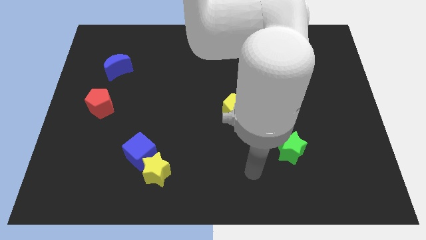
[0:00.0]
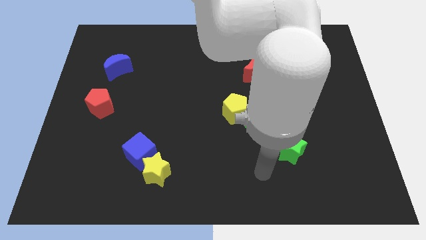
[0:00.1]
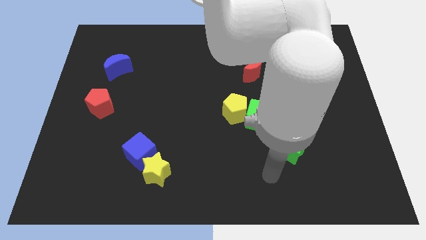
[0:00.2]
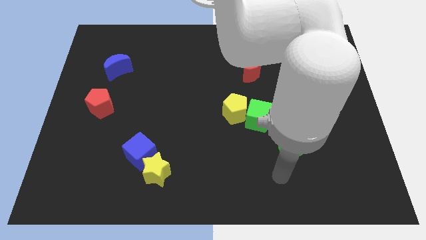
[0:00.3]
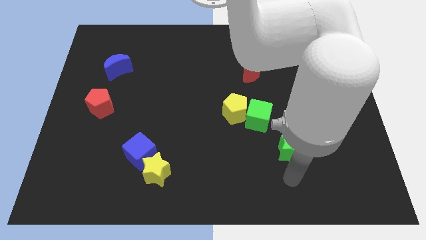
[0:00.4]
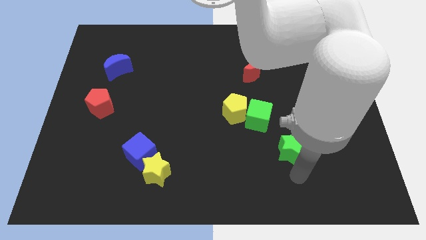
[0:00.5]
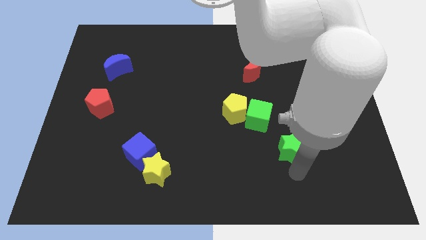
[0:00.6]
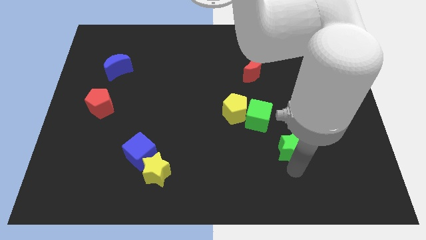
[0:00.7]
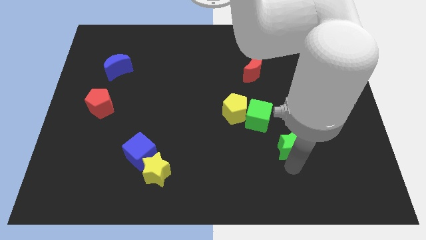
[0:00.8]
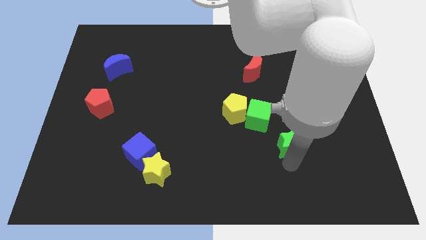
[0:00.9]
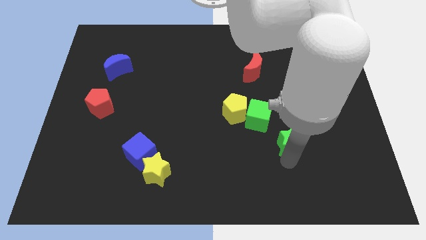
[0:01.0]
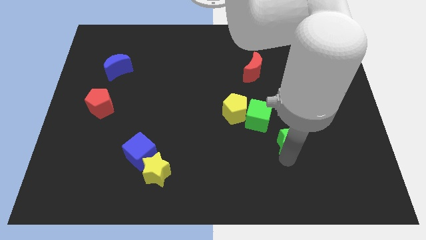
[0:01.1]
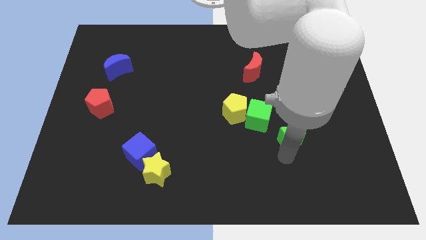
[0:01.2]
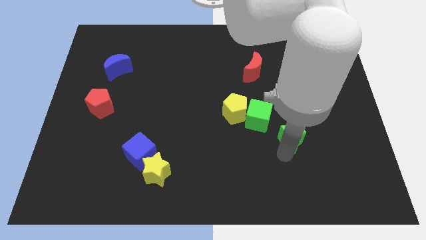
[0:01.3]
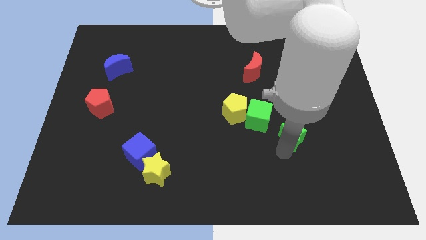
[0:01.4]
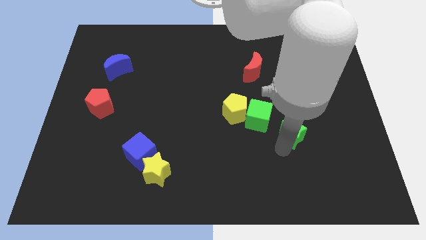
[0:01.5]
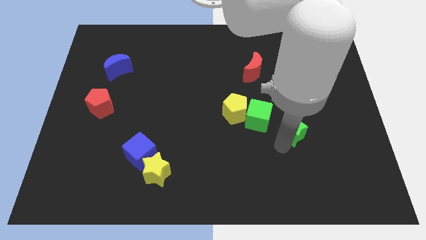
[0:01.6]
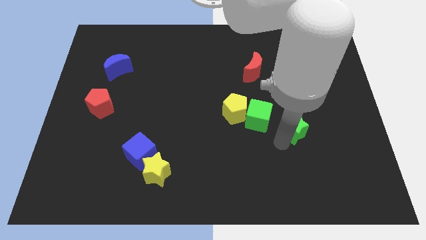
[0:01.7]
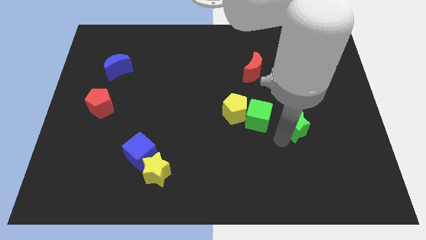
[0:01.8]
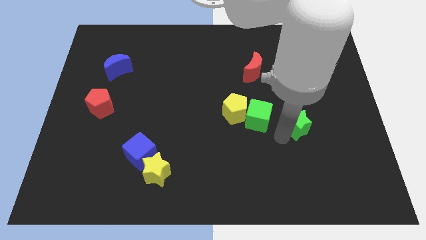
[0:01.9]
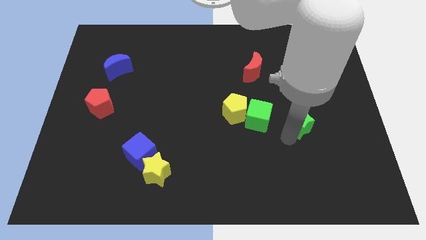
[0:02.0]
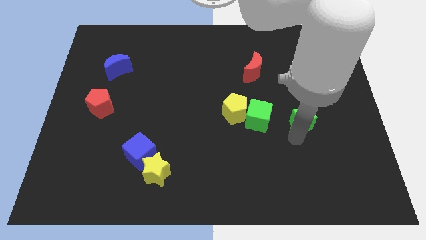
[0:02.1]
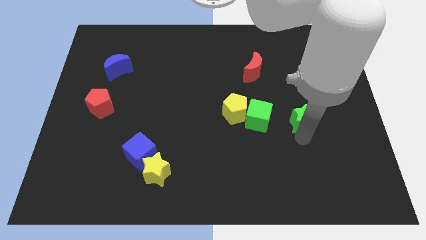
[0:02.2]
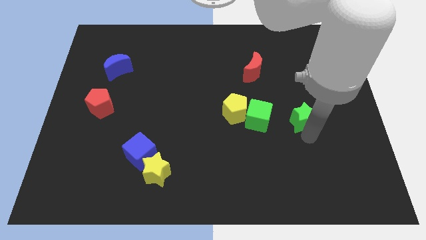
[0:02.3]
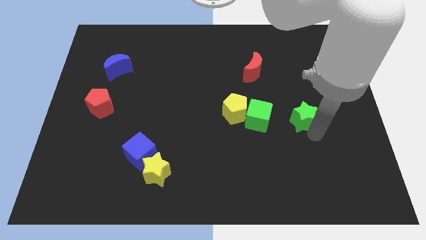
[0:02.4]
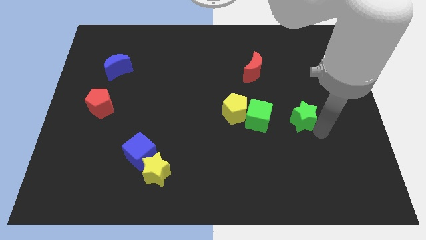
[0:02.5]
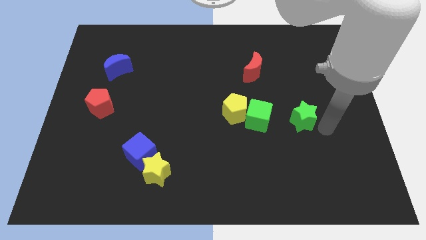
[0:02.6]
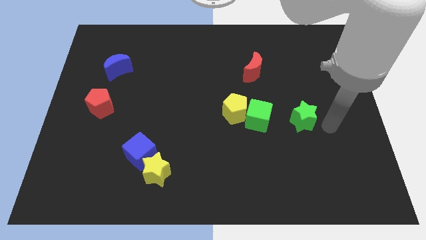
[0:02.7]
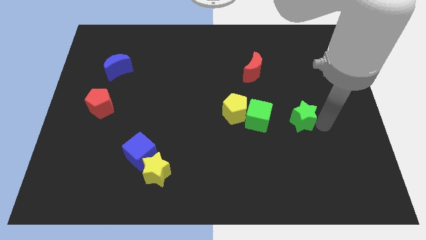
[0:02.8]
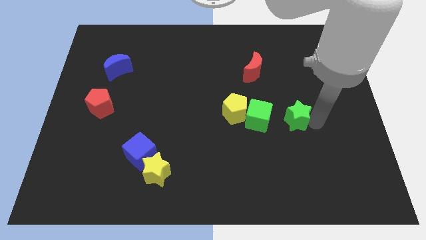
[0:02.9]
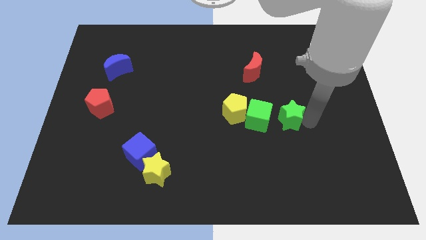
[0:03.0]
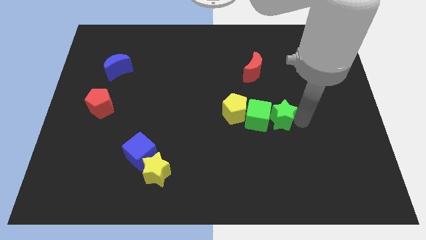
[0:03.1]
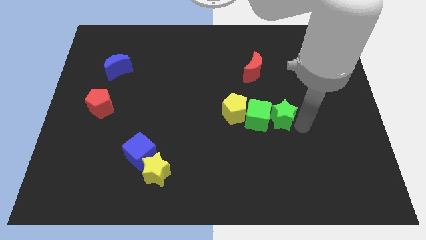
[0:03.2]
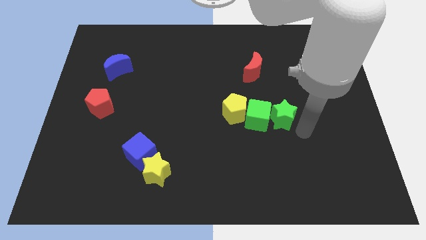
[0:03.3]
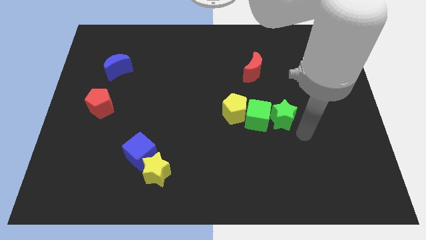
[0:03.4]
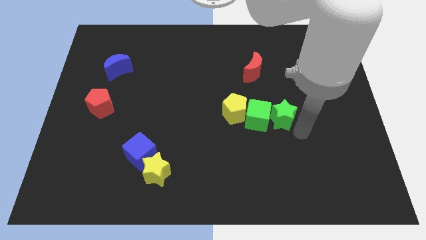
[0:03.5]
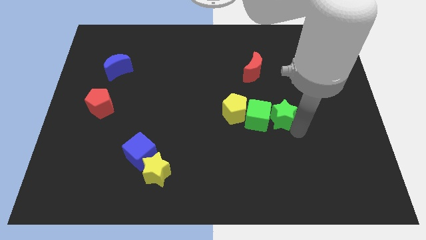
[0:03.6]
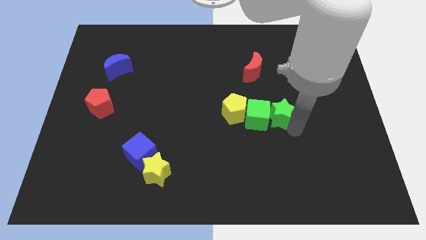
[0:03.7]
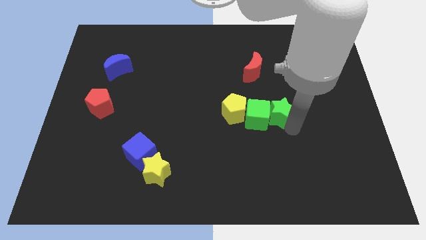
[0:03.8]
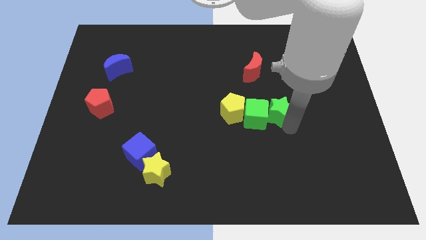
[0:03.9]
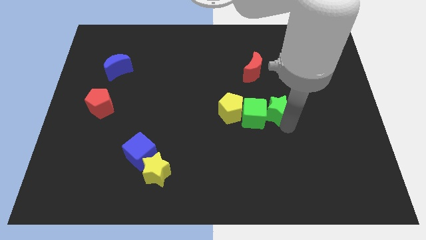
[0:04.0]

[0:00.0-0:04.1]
move the green star slightly up and then left

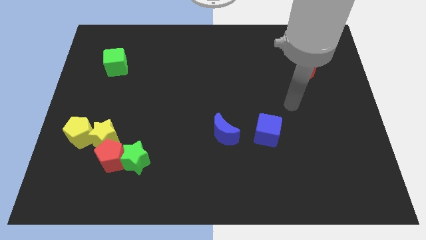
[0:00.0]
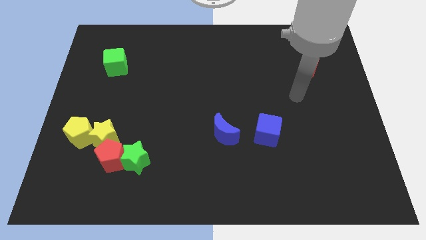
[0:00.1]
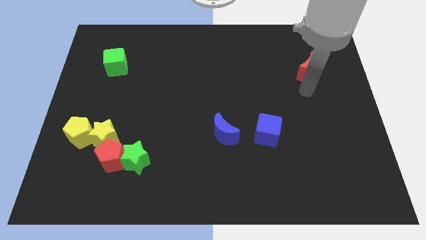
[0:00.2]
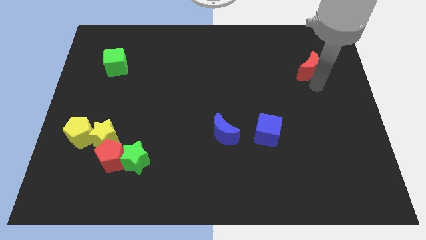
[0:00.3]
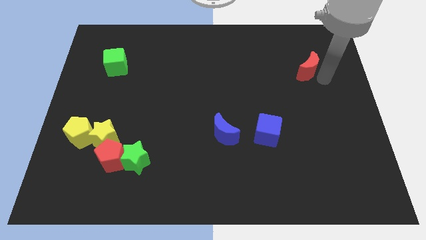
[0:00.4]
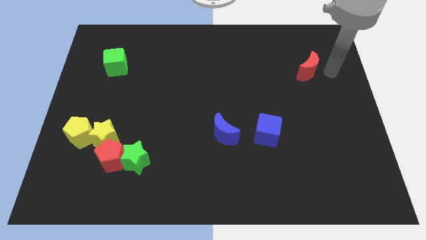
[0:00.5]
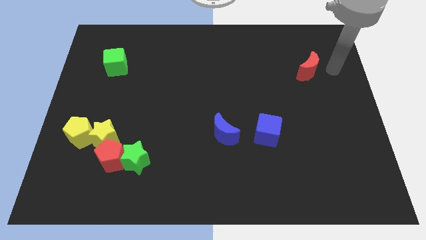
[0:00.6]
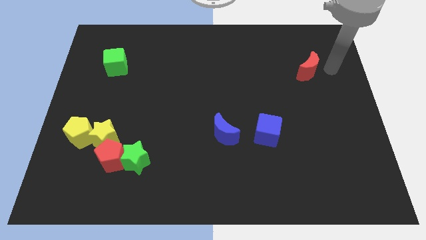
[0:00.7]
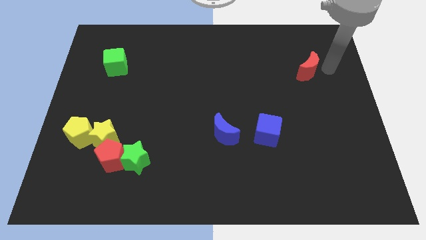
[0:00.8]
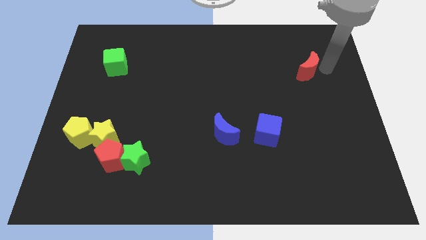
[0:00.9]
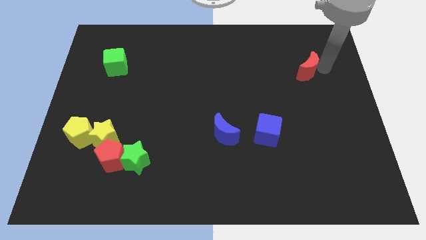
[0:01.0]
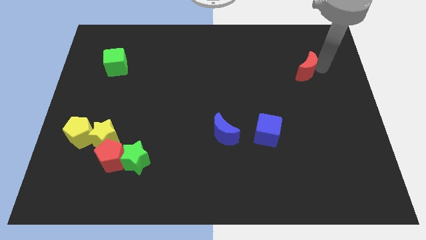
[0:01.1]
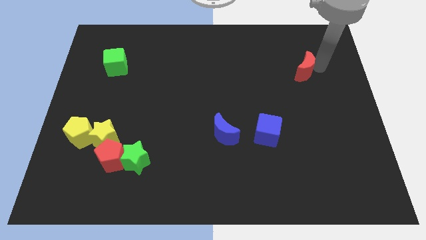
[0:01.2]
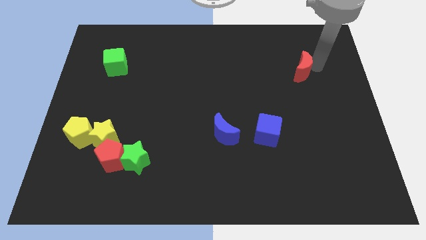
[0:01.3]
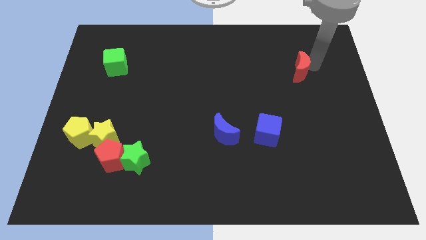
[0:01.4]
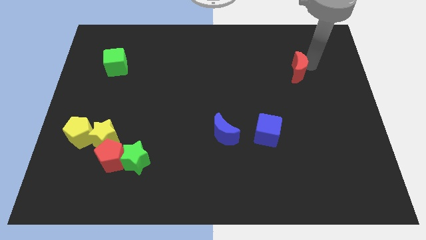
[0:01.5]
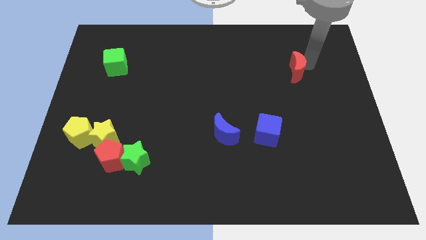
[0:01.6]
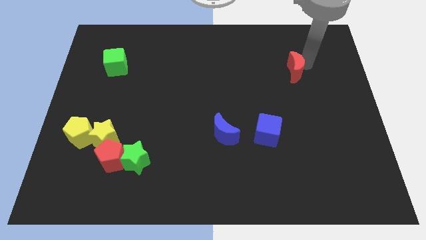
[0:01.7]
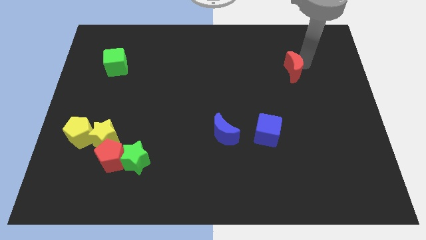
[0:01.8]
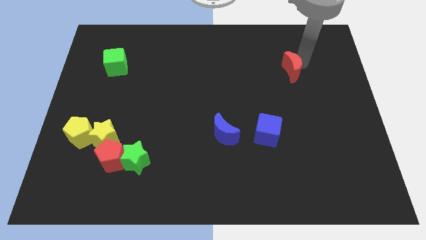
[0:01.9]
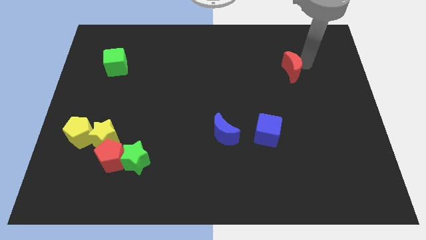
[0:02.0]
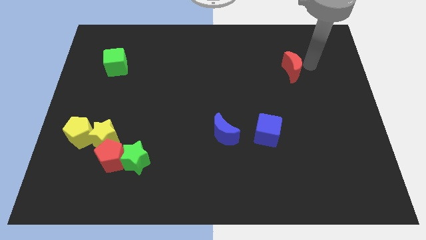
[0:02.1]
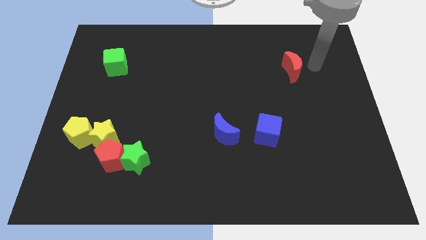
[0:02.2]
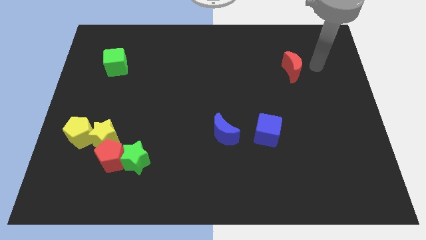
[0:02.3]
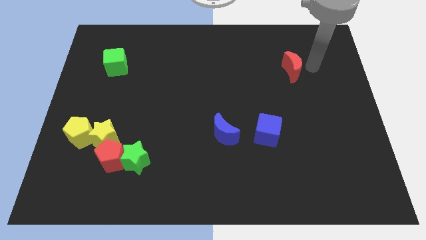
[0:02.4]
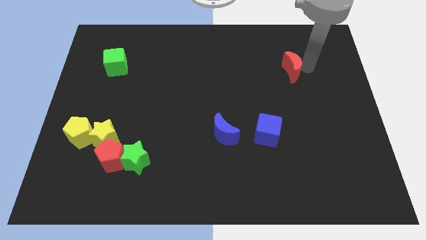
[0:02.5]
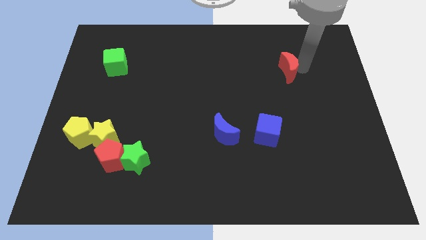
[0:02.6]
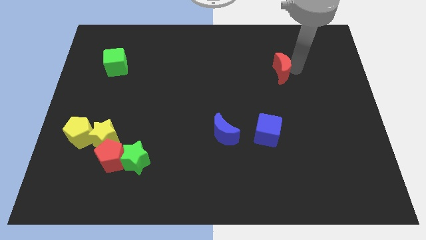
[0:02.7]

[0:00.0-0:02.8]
move the red moon a bit to the left

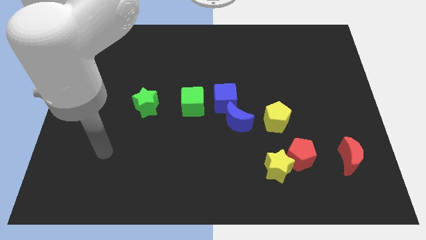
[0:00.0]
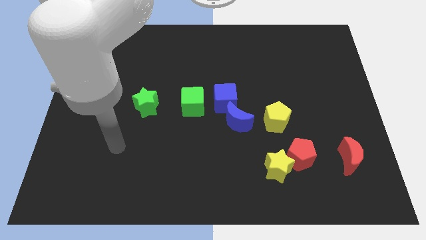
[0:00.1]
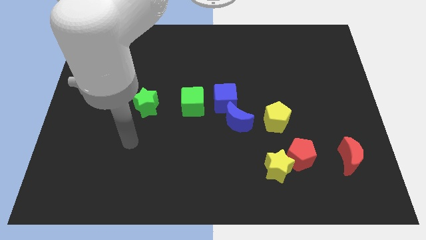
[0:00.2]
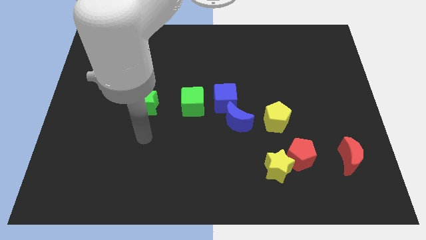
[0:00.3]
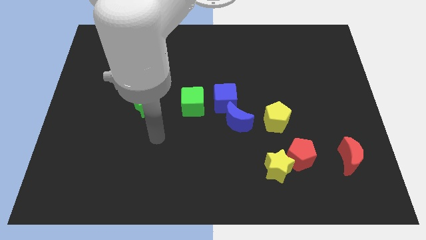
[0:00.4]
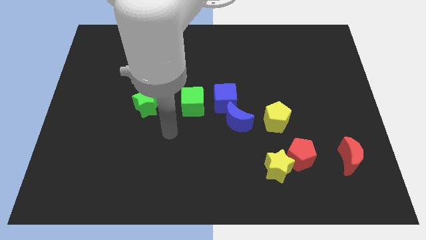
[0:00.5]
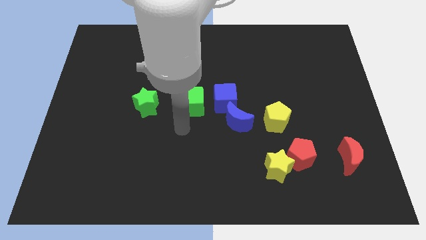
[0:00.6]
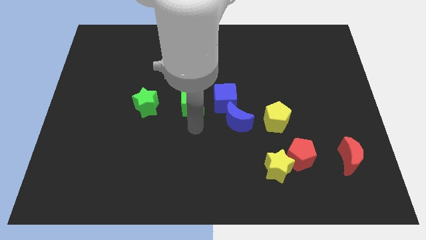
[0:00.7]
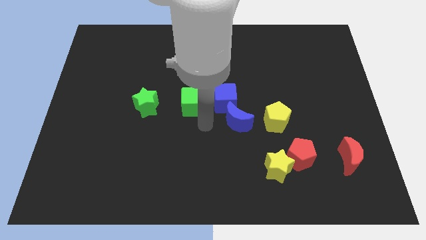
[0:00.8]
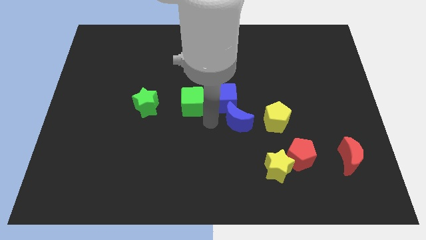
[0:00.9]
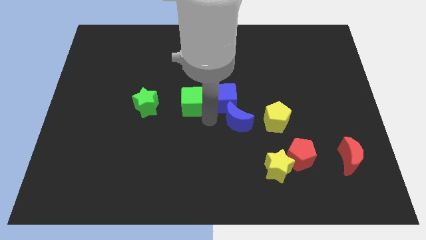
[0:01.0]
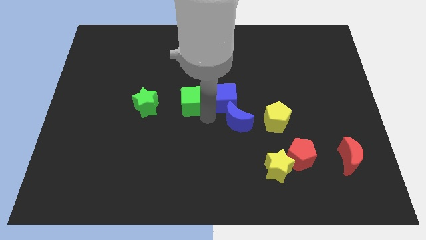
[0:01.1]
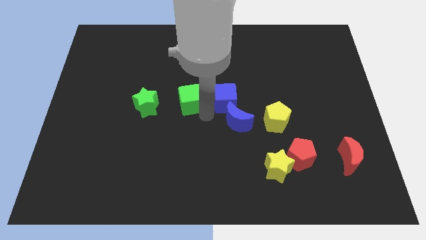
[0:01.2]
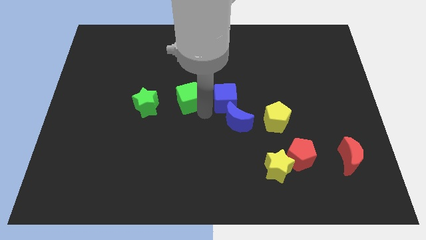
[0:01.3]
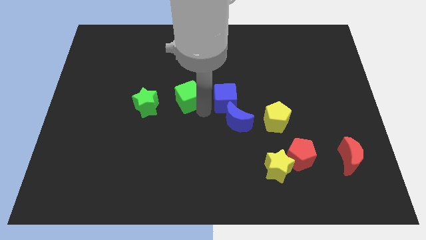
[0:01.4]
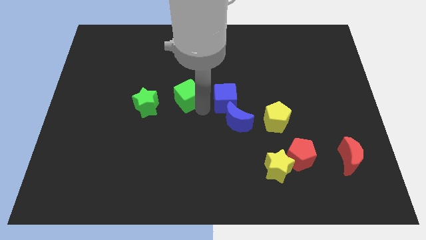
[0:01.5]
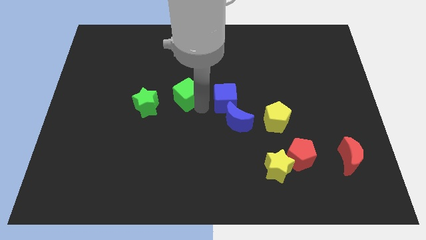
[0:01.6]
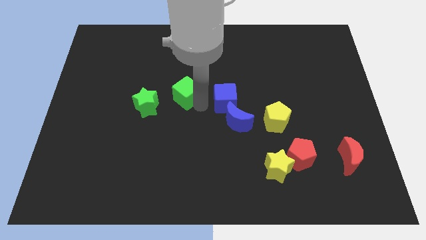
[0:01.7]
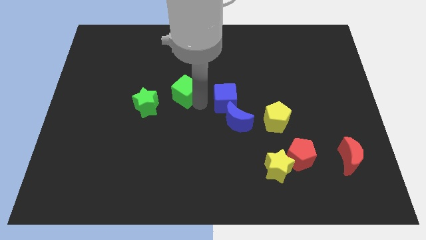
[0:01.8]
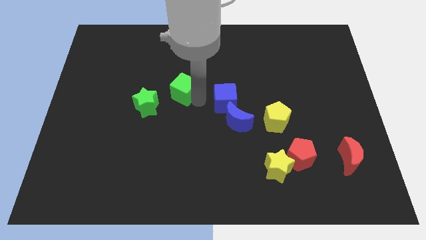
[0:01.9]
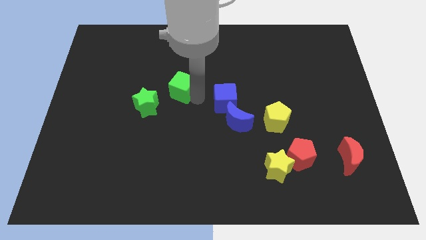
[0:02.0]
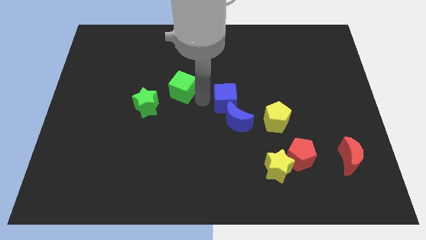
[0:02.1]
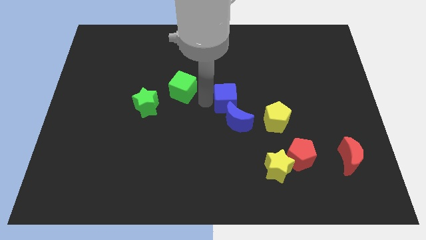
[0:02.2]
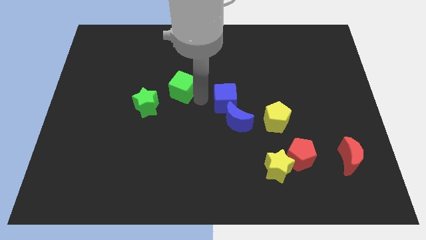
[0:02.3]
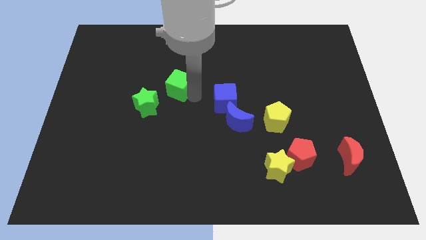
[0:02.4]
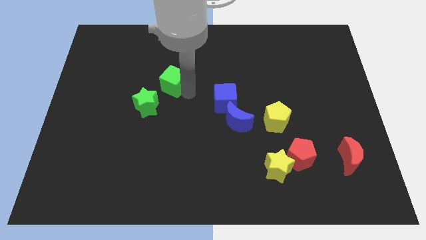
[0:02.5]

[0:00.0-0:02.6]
slightly slide the green cube upwards and then to the left
